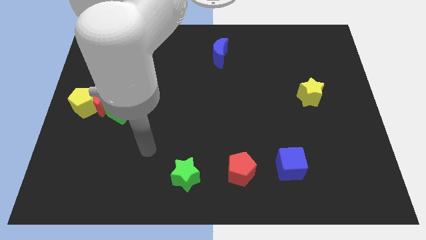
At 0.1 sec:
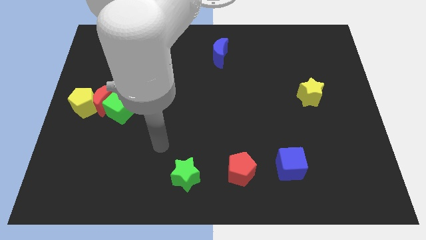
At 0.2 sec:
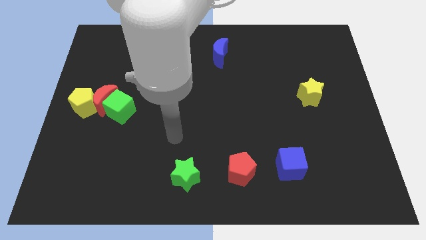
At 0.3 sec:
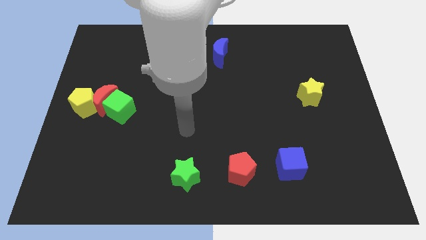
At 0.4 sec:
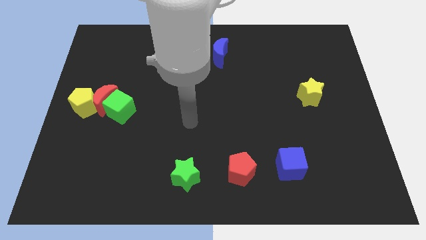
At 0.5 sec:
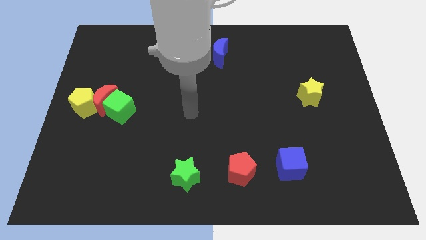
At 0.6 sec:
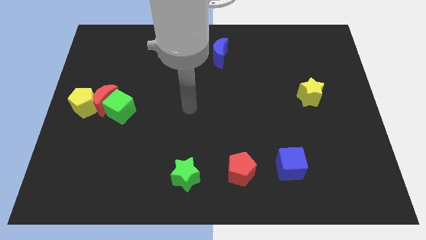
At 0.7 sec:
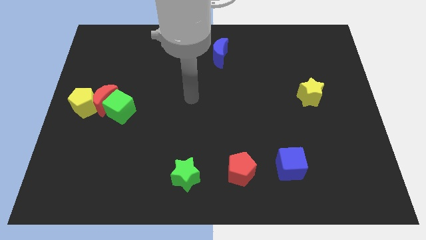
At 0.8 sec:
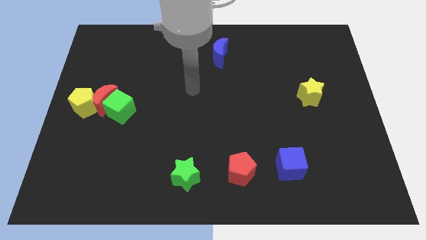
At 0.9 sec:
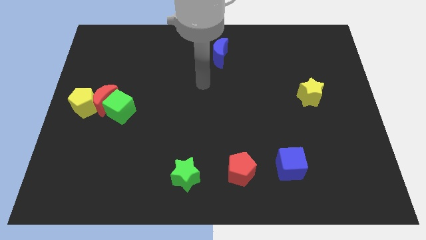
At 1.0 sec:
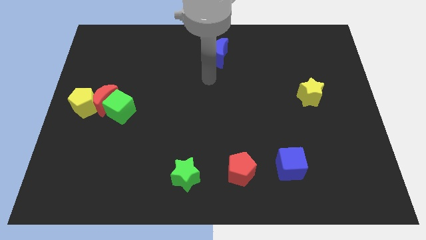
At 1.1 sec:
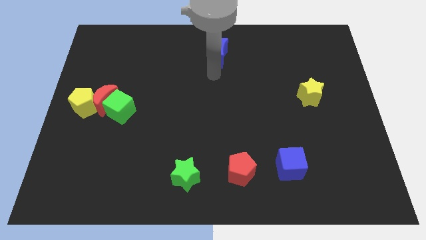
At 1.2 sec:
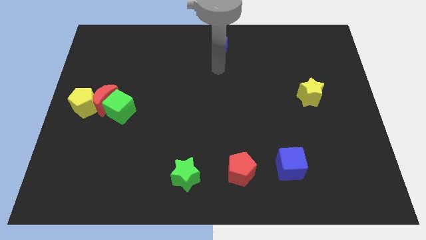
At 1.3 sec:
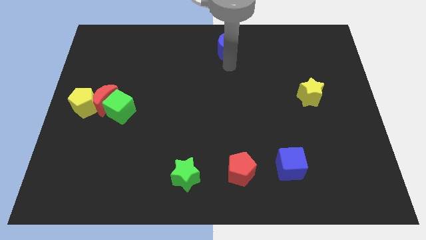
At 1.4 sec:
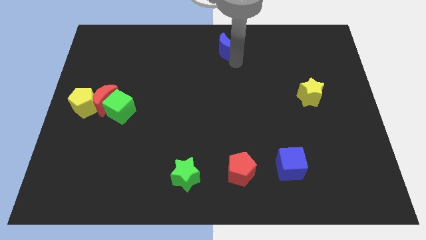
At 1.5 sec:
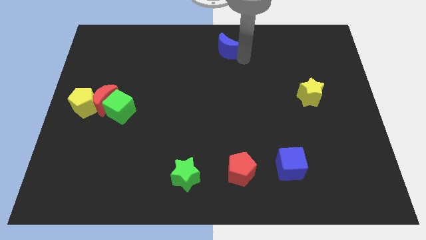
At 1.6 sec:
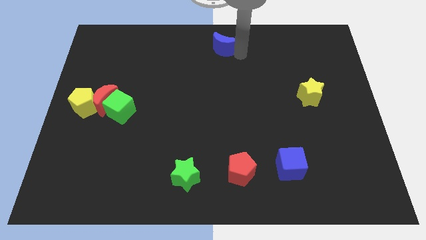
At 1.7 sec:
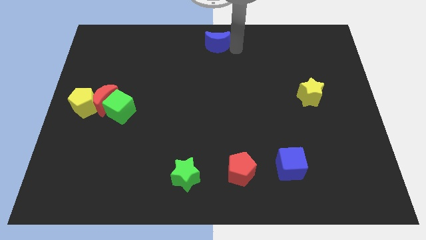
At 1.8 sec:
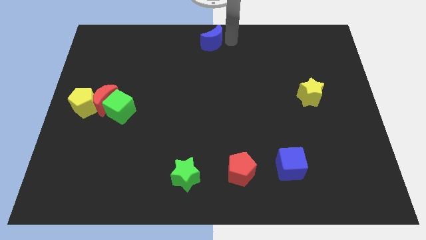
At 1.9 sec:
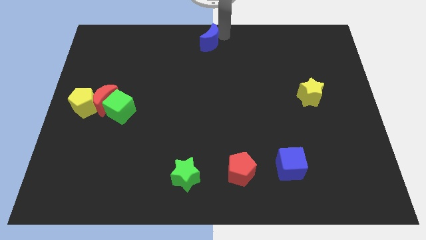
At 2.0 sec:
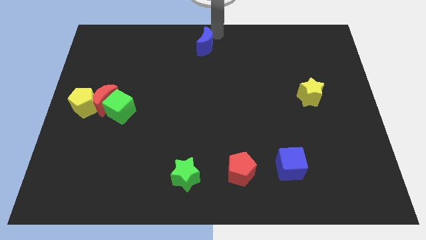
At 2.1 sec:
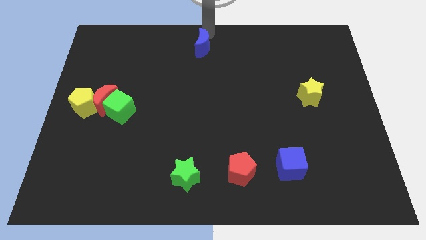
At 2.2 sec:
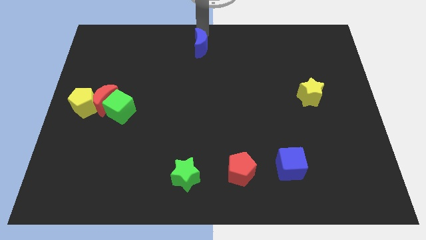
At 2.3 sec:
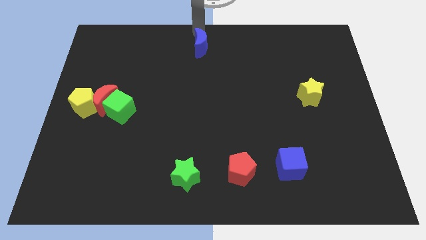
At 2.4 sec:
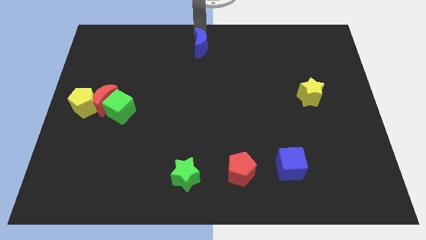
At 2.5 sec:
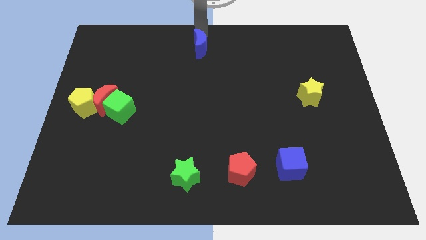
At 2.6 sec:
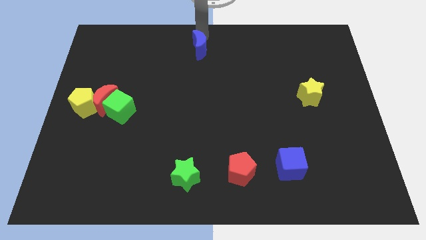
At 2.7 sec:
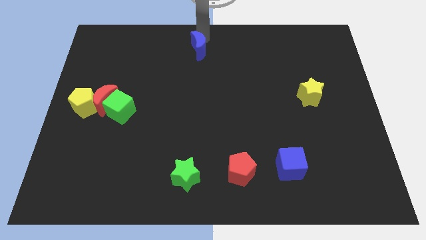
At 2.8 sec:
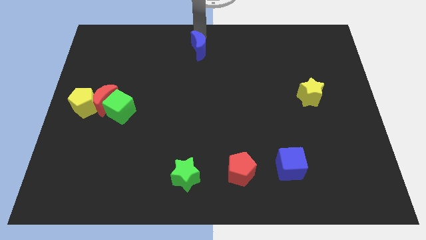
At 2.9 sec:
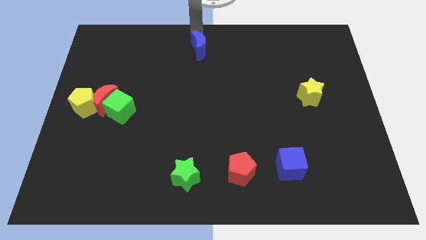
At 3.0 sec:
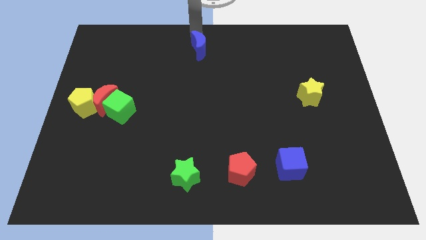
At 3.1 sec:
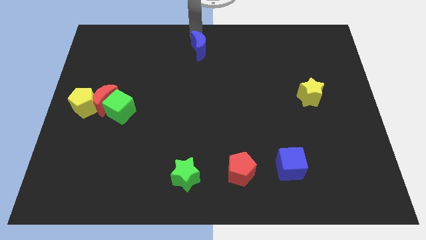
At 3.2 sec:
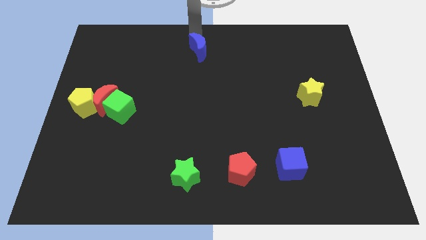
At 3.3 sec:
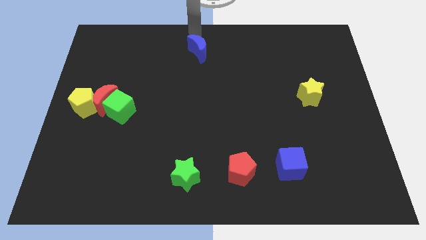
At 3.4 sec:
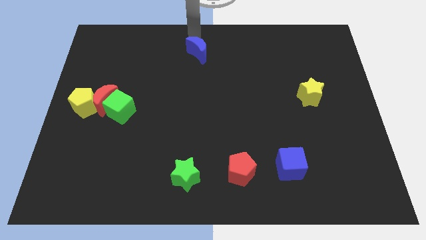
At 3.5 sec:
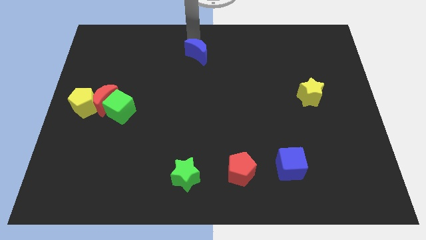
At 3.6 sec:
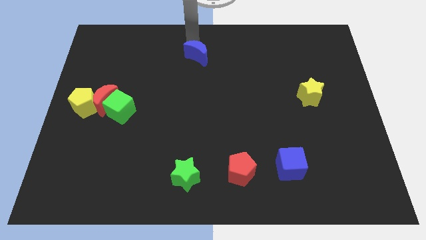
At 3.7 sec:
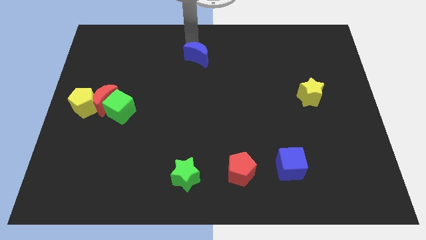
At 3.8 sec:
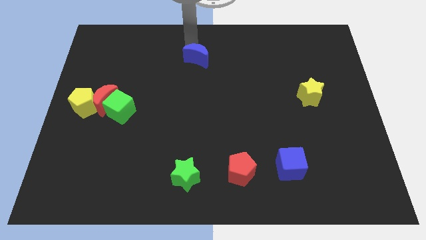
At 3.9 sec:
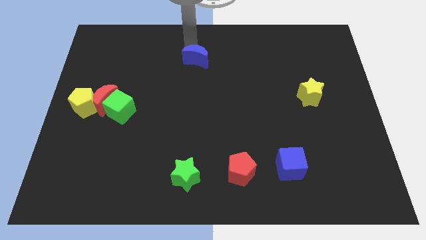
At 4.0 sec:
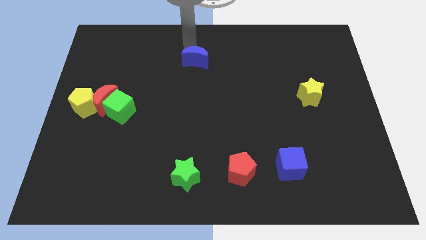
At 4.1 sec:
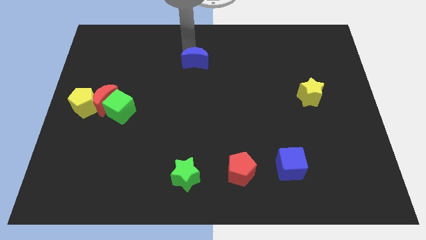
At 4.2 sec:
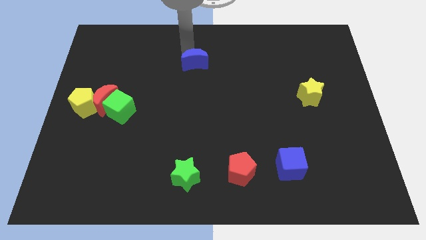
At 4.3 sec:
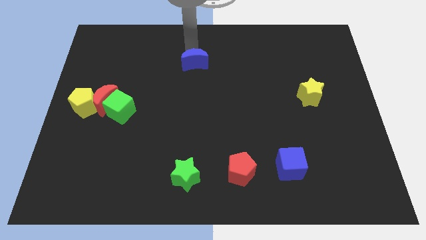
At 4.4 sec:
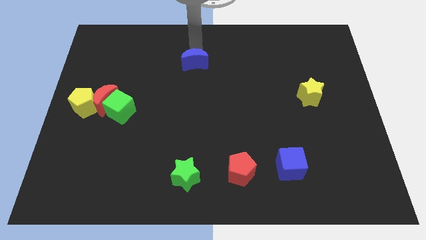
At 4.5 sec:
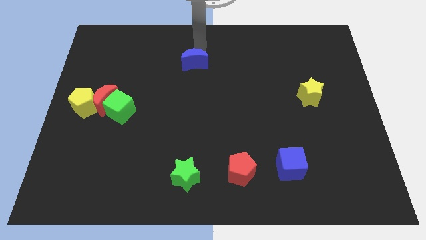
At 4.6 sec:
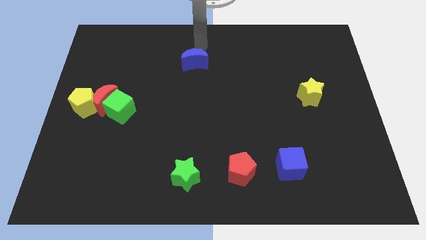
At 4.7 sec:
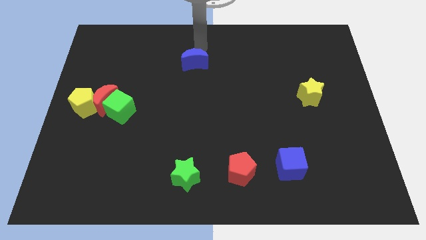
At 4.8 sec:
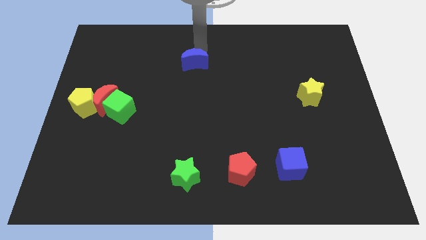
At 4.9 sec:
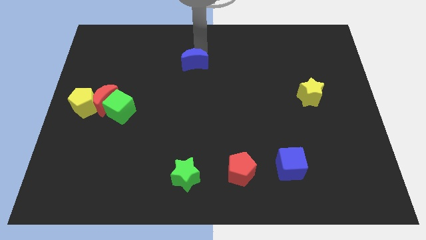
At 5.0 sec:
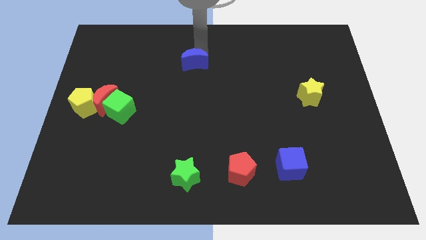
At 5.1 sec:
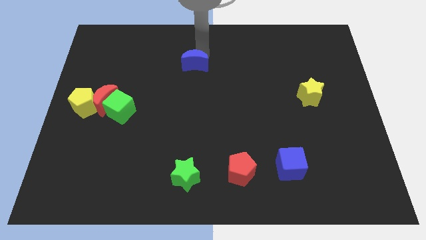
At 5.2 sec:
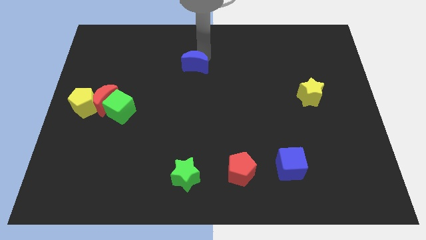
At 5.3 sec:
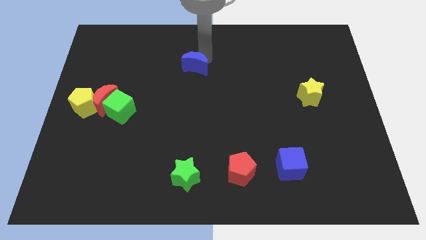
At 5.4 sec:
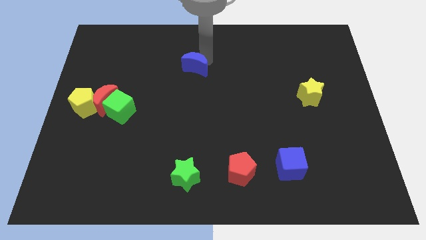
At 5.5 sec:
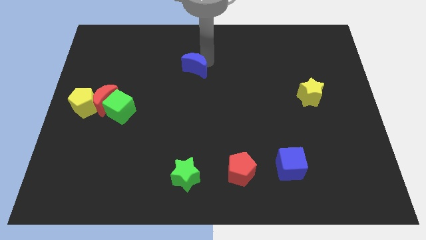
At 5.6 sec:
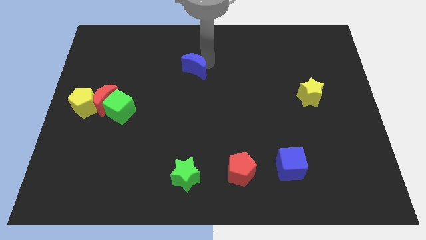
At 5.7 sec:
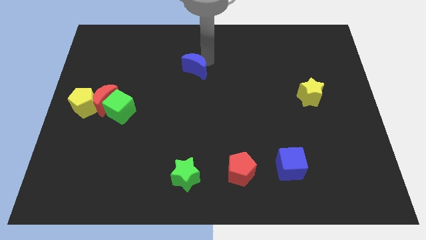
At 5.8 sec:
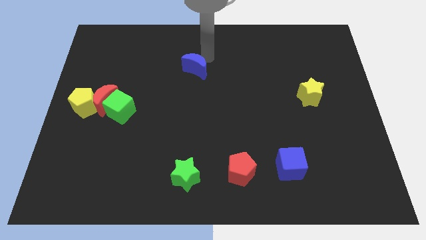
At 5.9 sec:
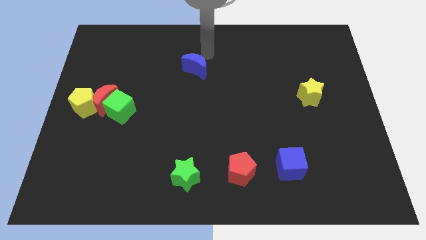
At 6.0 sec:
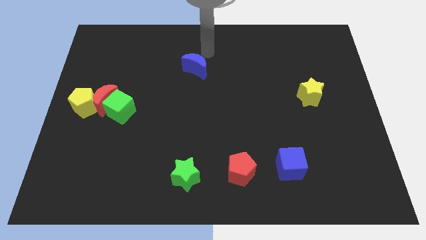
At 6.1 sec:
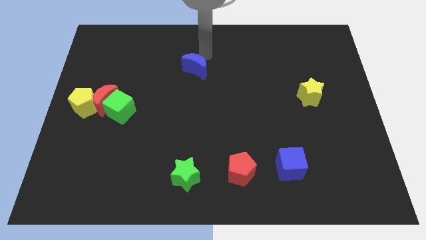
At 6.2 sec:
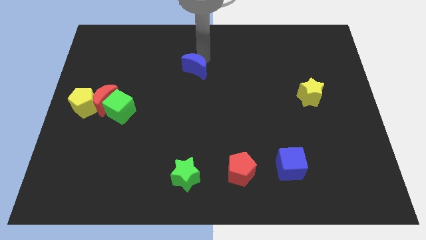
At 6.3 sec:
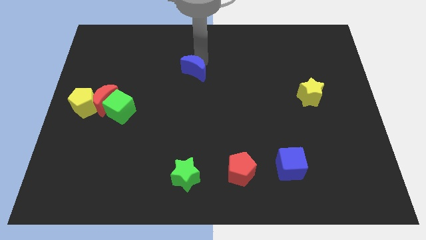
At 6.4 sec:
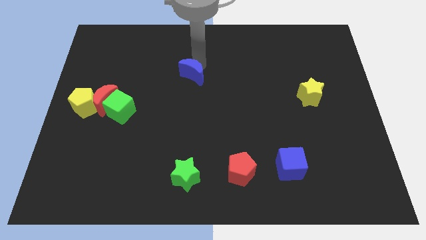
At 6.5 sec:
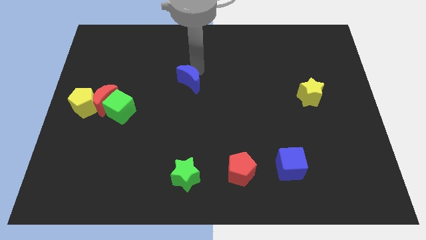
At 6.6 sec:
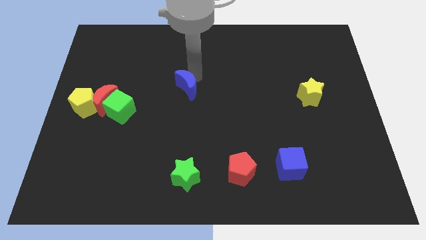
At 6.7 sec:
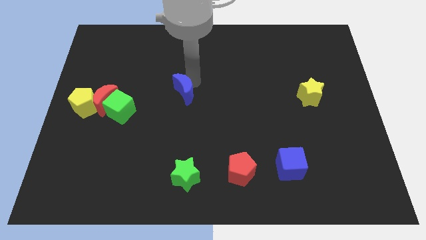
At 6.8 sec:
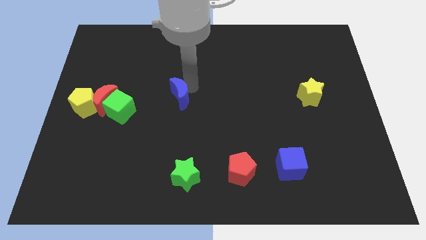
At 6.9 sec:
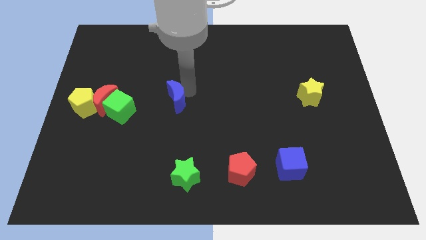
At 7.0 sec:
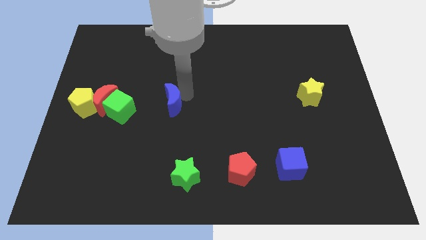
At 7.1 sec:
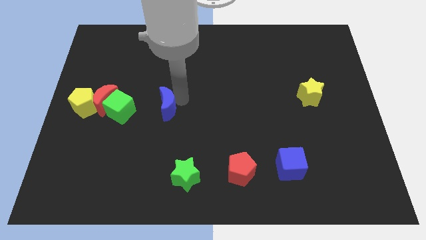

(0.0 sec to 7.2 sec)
slide the blue moon down and to the left

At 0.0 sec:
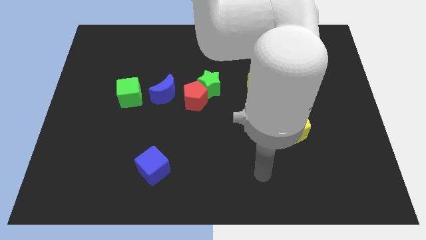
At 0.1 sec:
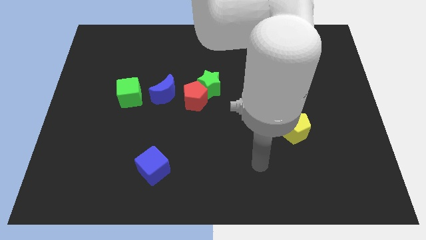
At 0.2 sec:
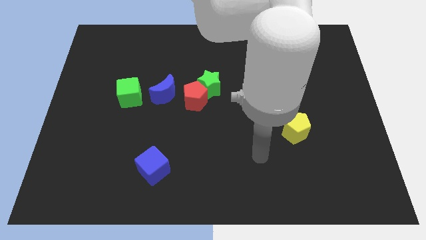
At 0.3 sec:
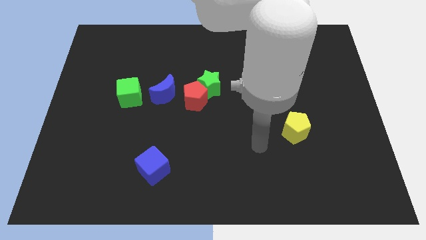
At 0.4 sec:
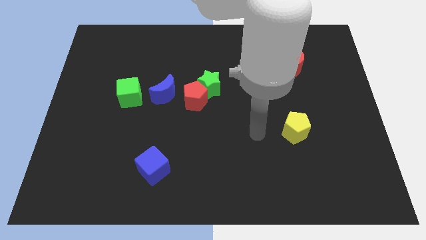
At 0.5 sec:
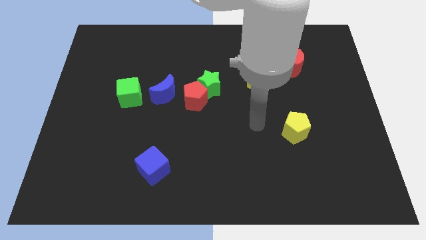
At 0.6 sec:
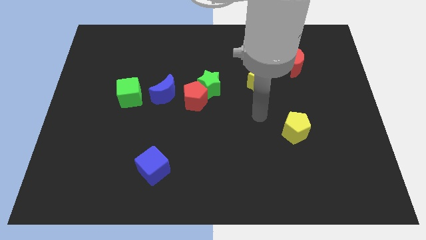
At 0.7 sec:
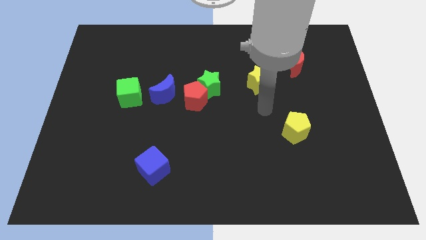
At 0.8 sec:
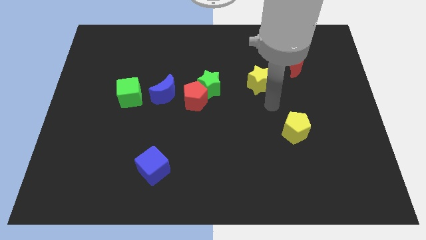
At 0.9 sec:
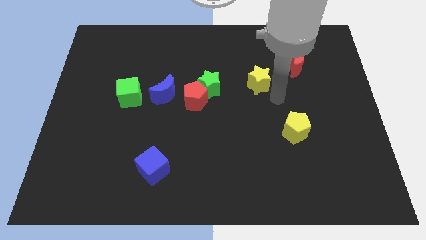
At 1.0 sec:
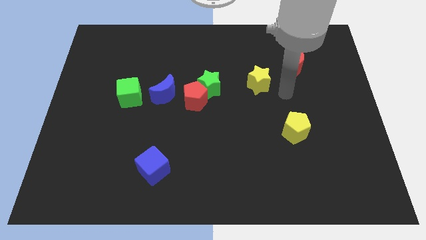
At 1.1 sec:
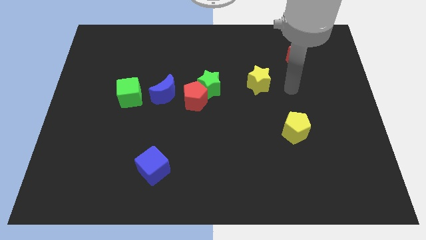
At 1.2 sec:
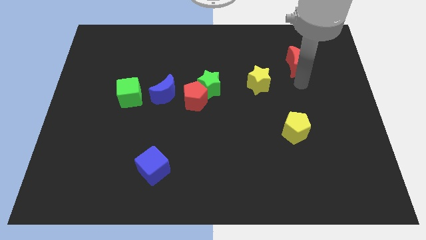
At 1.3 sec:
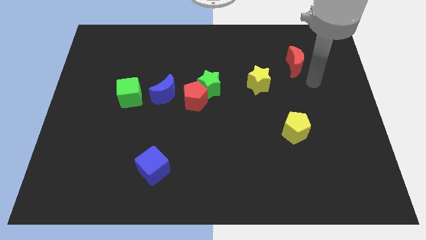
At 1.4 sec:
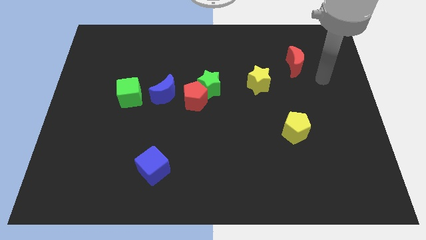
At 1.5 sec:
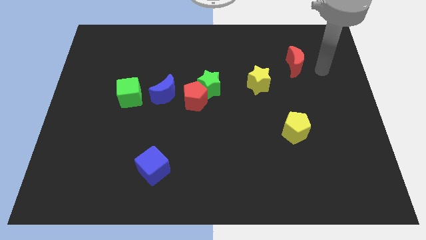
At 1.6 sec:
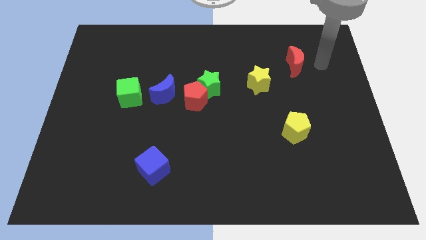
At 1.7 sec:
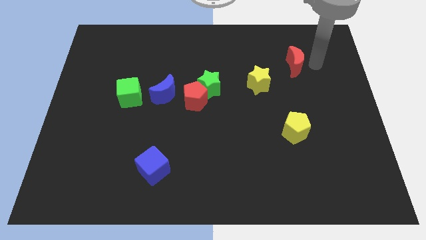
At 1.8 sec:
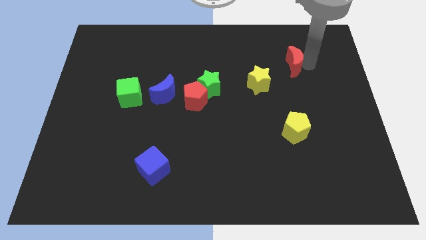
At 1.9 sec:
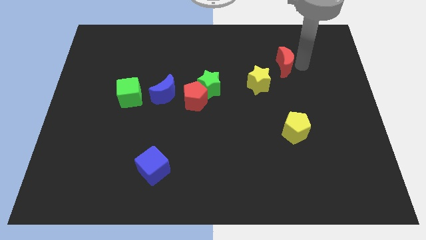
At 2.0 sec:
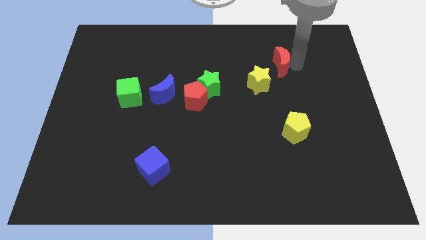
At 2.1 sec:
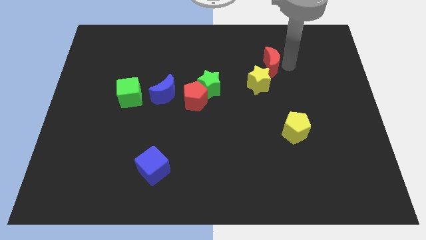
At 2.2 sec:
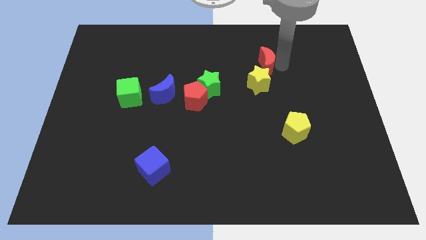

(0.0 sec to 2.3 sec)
slightly slide the red moon to the left
